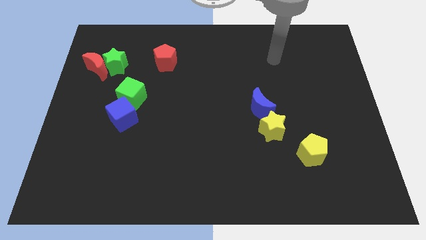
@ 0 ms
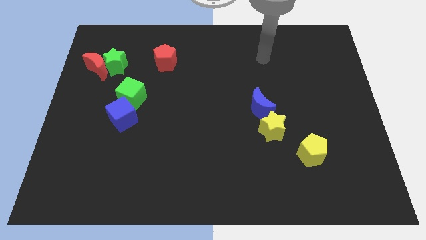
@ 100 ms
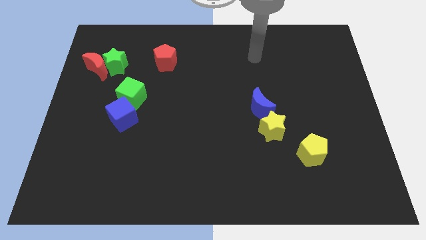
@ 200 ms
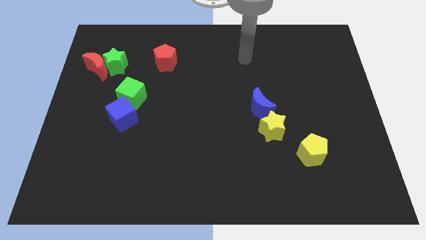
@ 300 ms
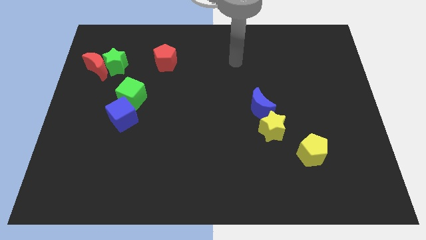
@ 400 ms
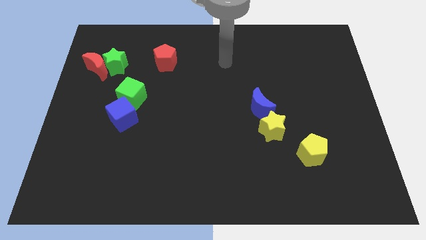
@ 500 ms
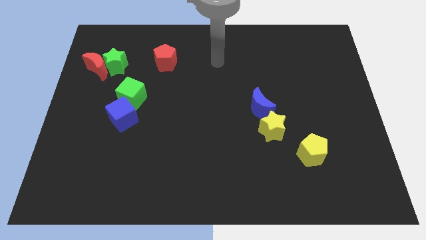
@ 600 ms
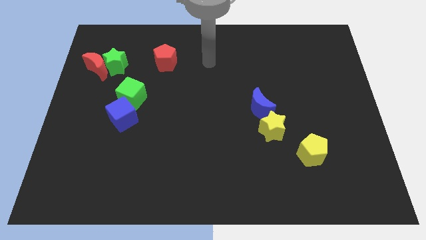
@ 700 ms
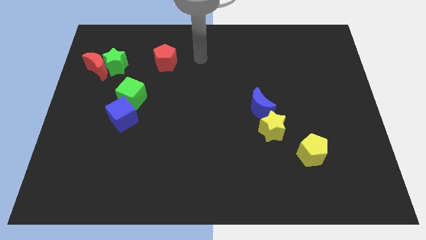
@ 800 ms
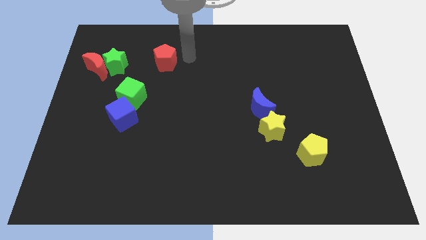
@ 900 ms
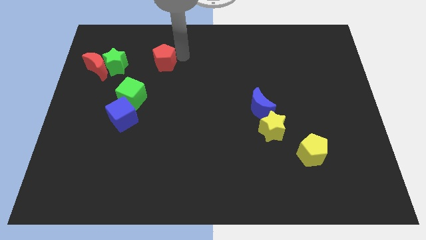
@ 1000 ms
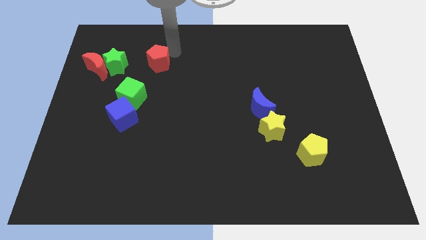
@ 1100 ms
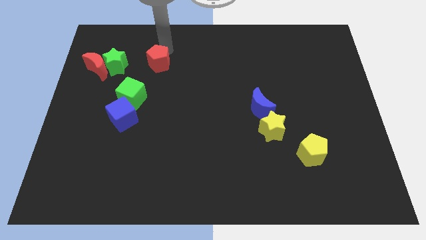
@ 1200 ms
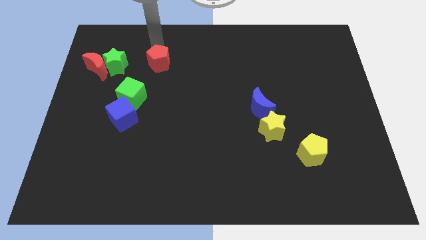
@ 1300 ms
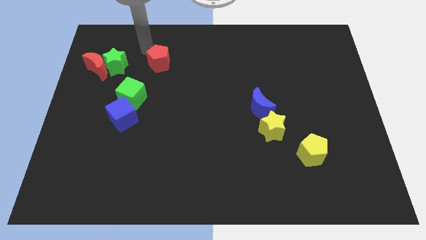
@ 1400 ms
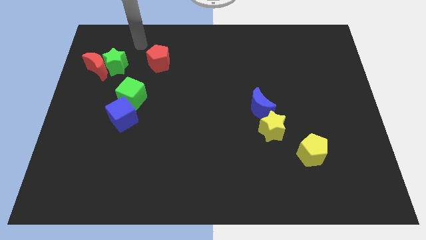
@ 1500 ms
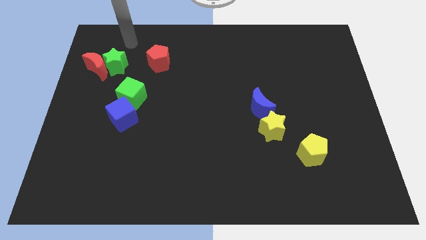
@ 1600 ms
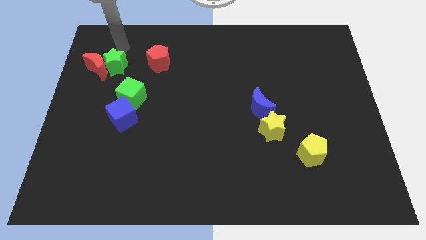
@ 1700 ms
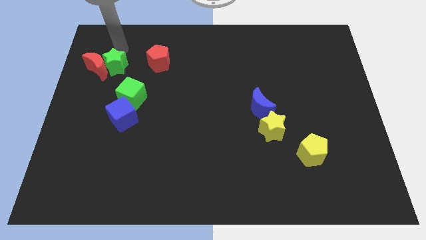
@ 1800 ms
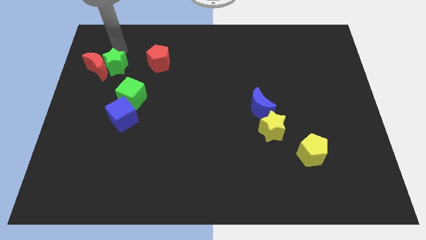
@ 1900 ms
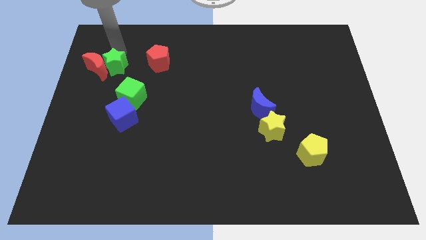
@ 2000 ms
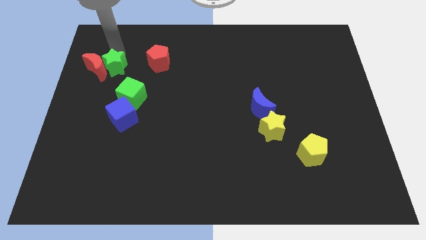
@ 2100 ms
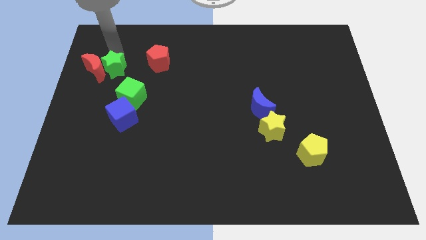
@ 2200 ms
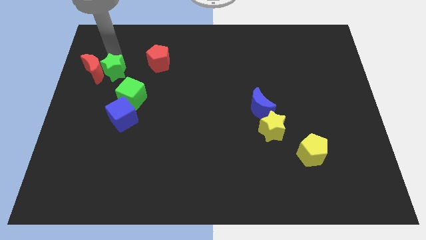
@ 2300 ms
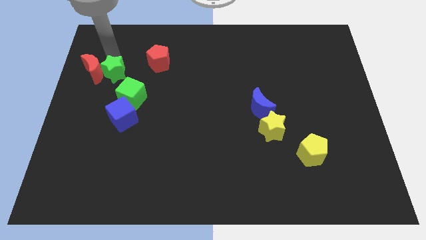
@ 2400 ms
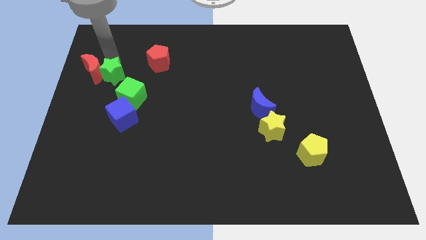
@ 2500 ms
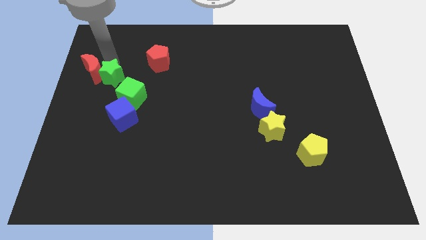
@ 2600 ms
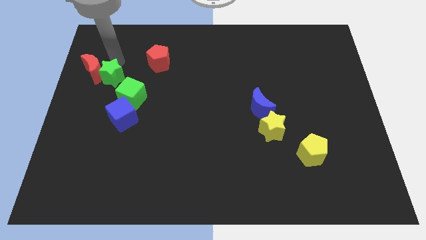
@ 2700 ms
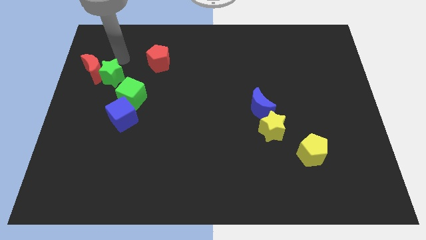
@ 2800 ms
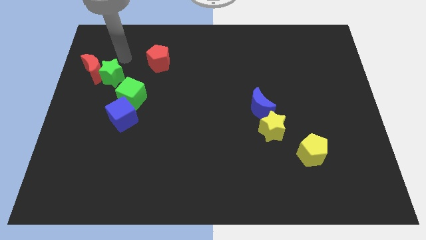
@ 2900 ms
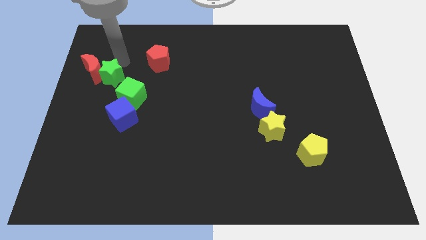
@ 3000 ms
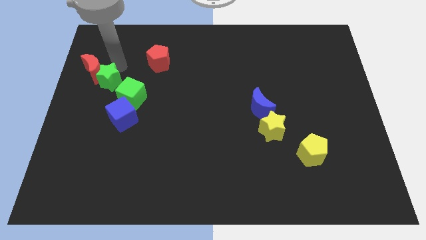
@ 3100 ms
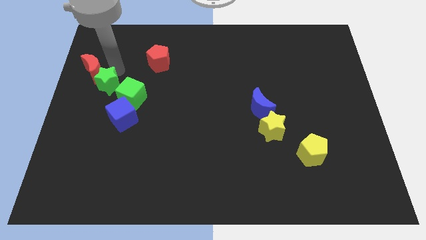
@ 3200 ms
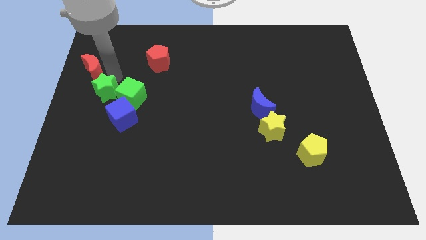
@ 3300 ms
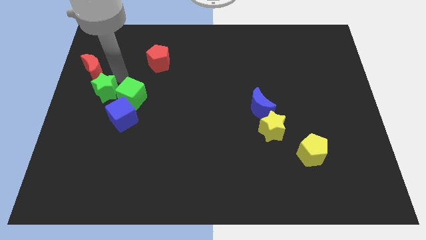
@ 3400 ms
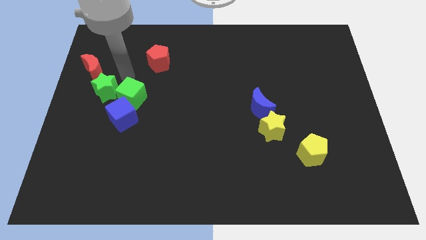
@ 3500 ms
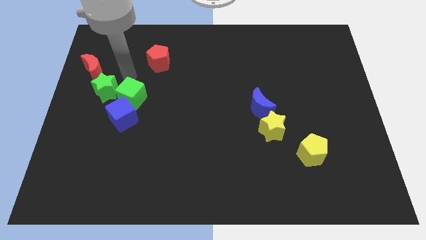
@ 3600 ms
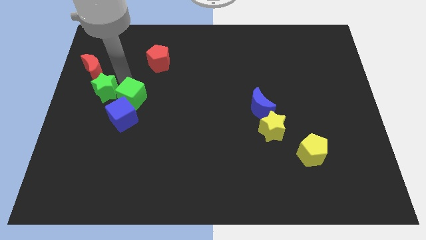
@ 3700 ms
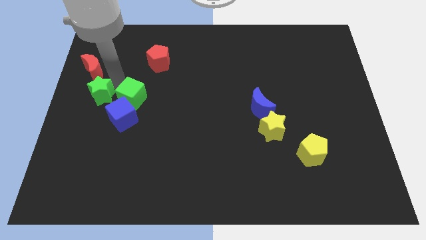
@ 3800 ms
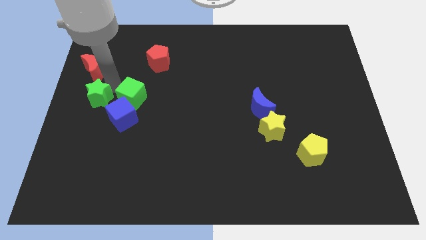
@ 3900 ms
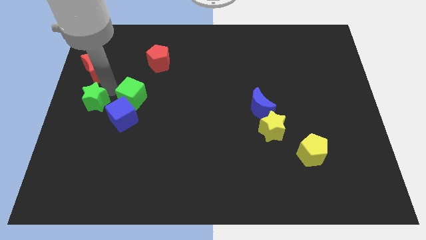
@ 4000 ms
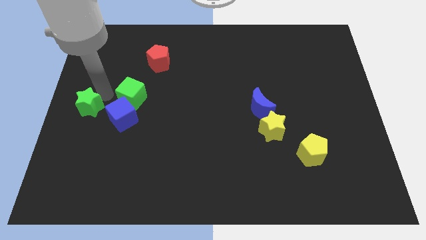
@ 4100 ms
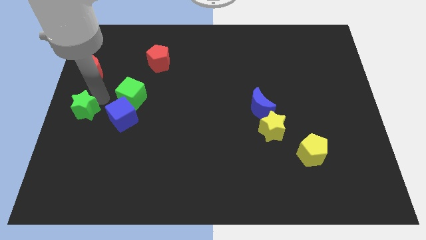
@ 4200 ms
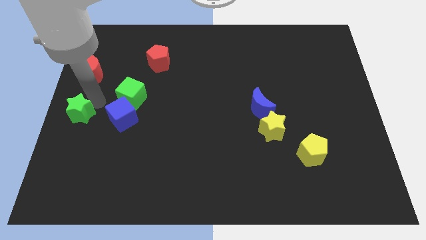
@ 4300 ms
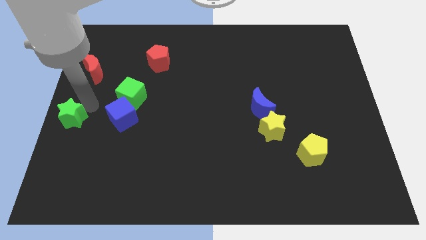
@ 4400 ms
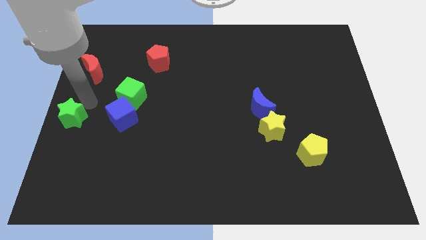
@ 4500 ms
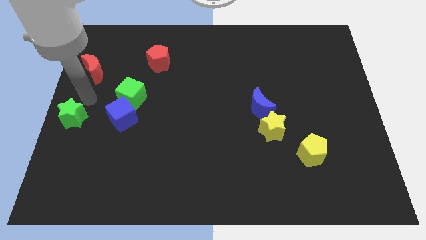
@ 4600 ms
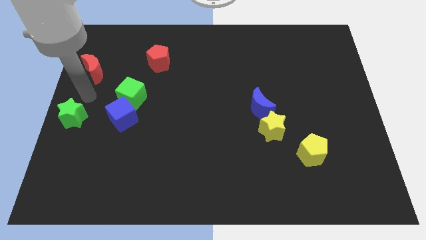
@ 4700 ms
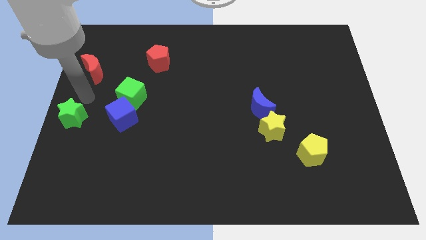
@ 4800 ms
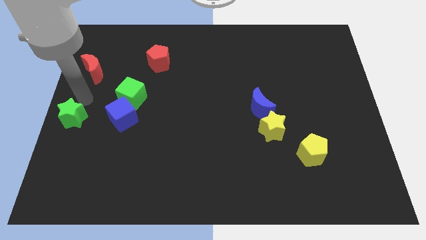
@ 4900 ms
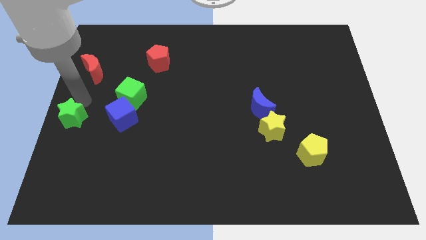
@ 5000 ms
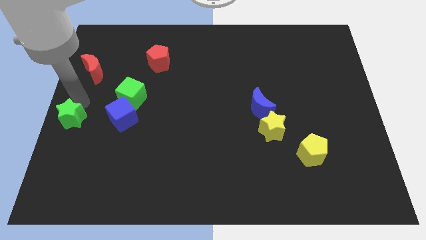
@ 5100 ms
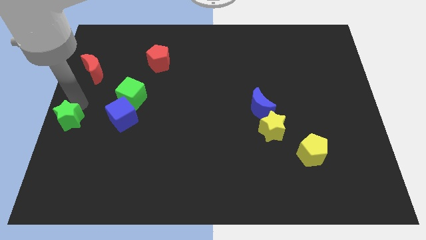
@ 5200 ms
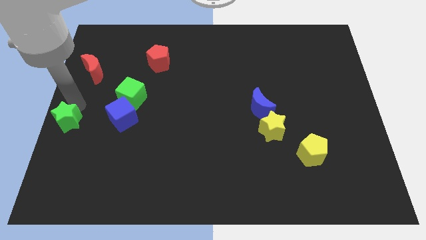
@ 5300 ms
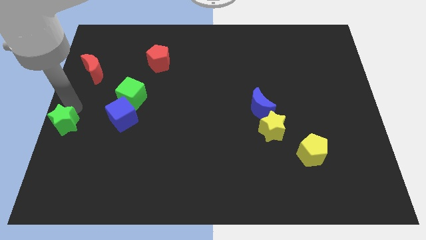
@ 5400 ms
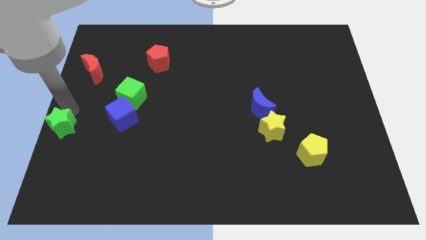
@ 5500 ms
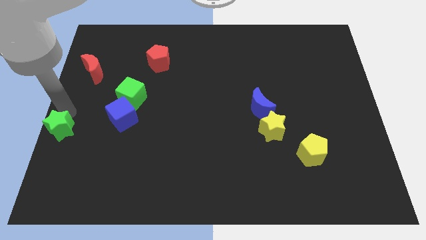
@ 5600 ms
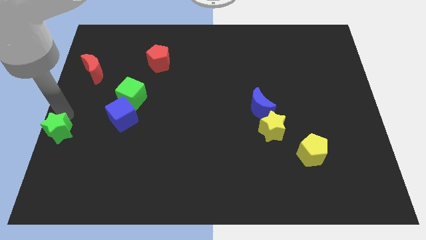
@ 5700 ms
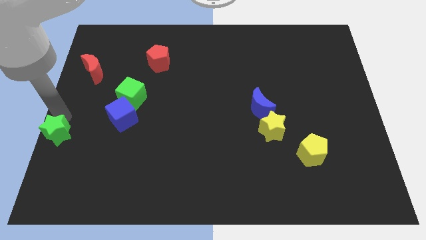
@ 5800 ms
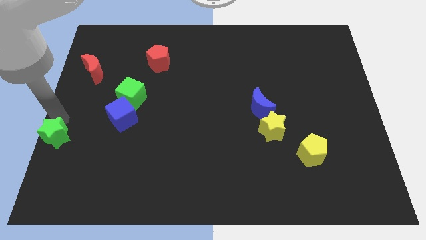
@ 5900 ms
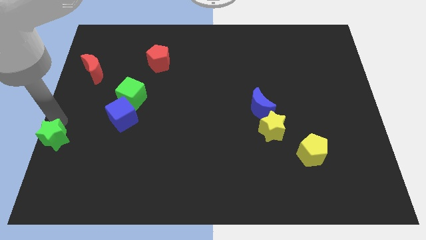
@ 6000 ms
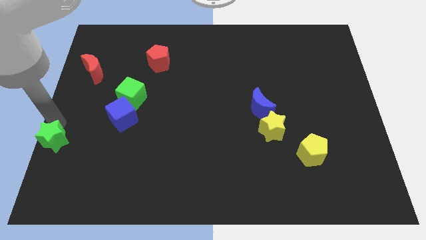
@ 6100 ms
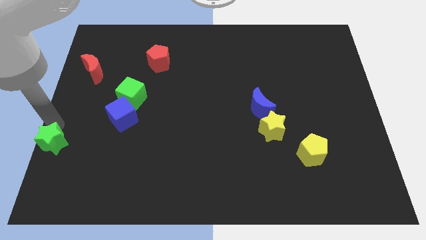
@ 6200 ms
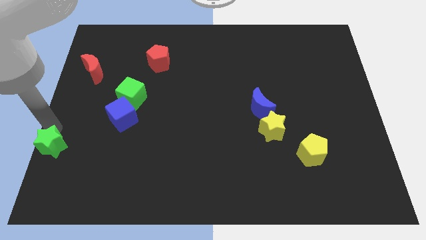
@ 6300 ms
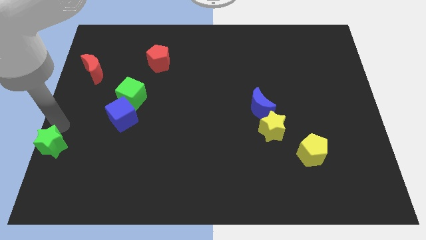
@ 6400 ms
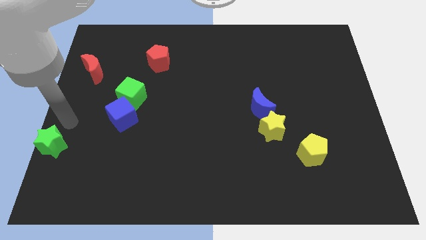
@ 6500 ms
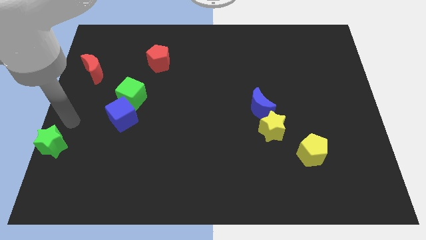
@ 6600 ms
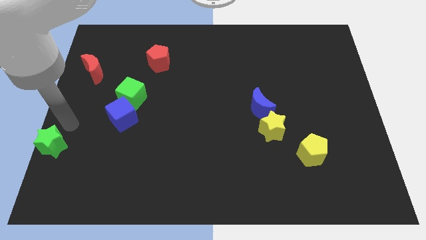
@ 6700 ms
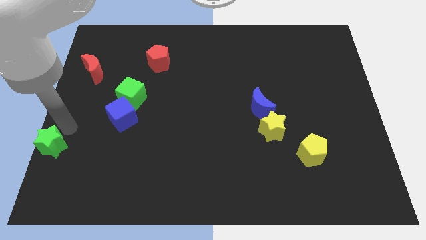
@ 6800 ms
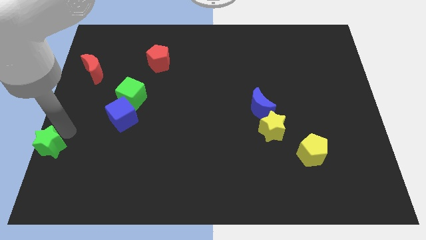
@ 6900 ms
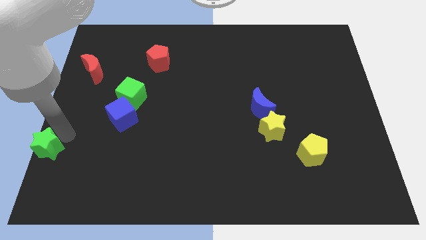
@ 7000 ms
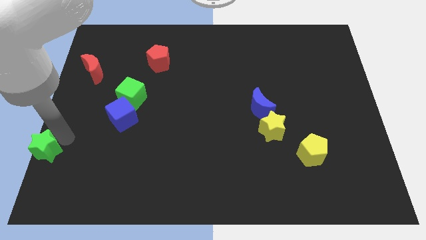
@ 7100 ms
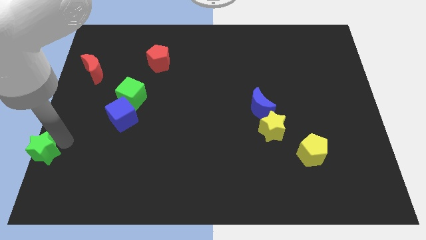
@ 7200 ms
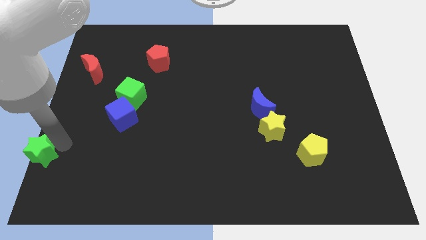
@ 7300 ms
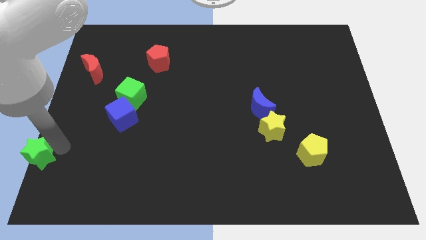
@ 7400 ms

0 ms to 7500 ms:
slide the green star to the lower left corner
